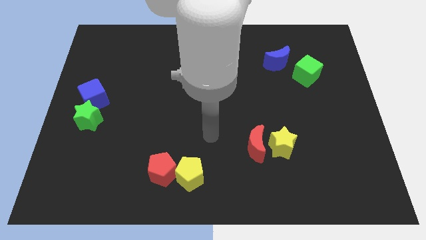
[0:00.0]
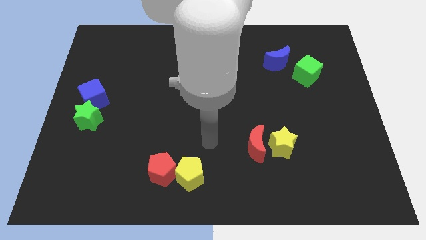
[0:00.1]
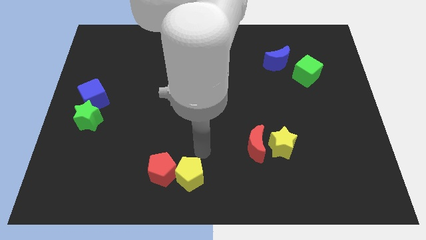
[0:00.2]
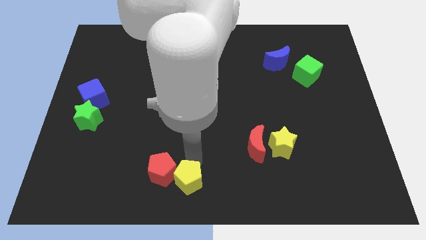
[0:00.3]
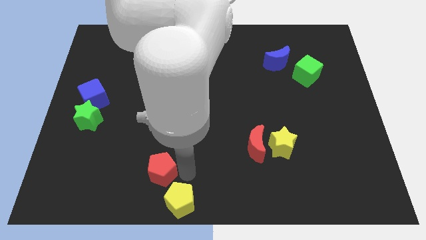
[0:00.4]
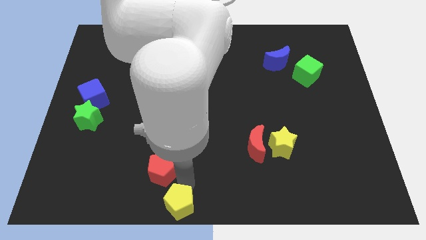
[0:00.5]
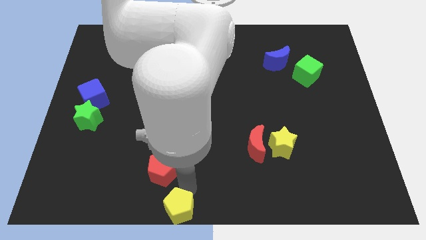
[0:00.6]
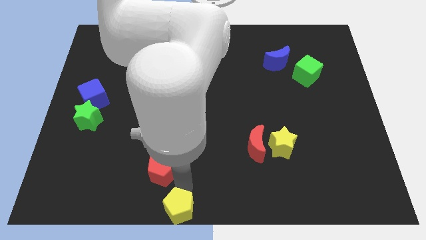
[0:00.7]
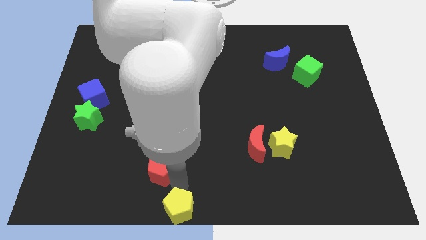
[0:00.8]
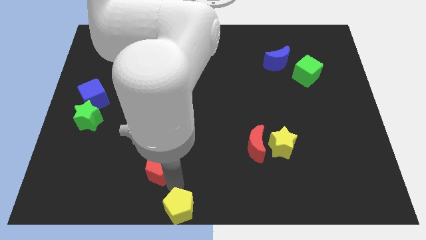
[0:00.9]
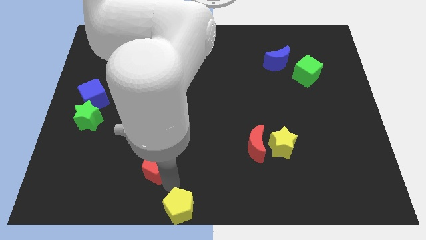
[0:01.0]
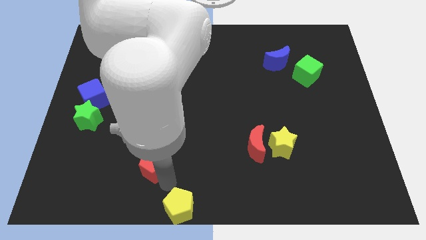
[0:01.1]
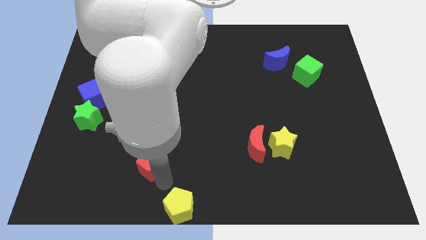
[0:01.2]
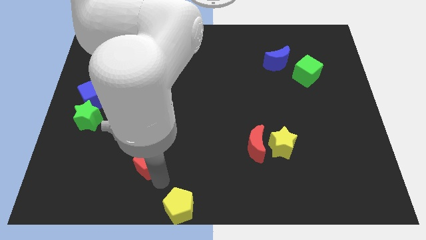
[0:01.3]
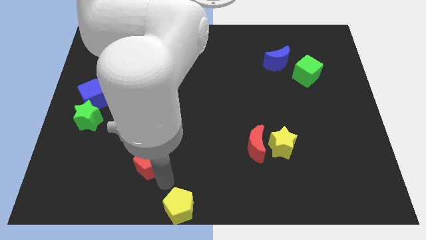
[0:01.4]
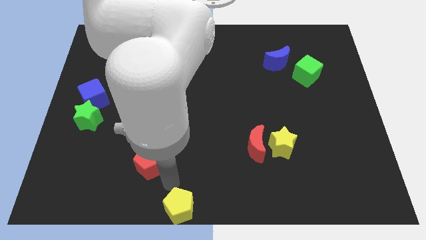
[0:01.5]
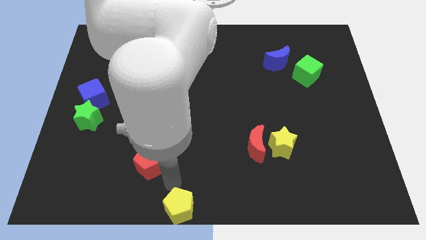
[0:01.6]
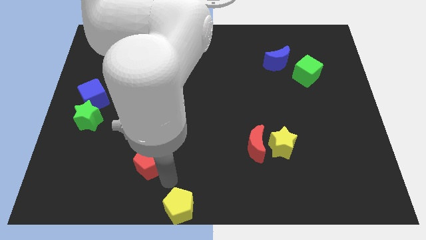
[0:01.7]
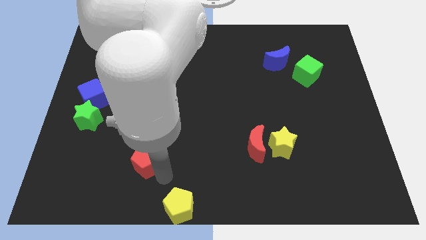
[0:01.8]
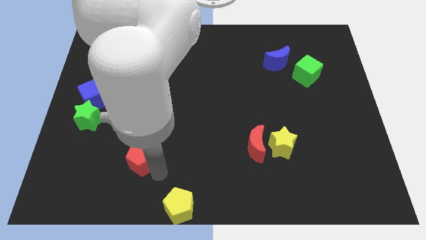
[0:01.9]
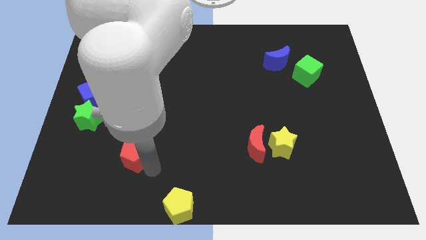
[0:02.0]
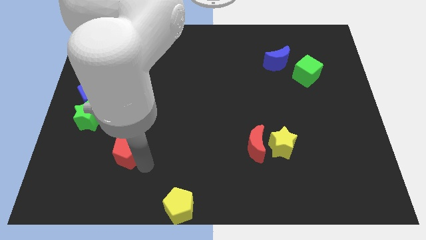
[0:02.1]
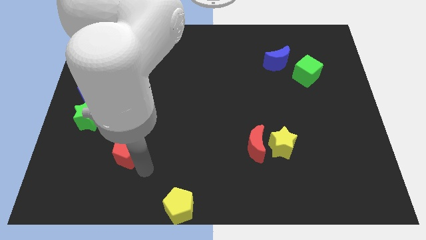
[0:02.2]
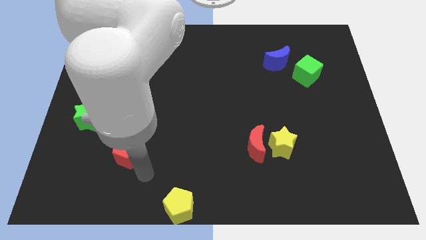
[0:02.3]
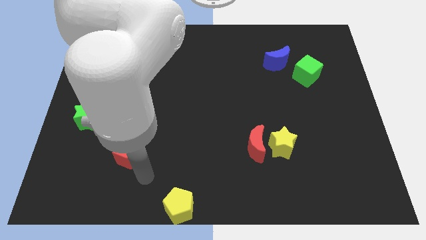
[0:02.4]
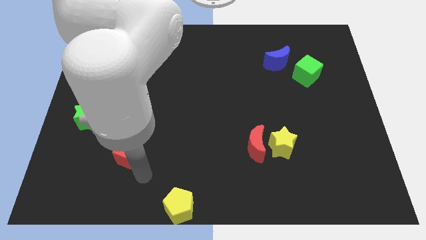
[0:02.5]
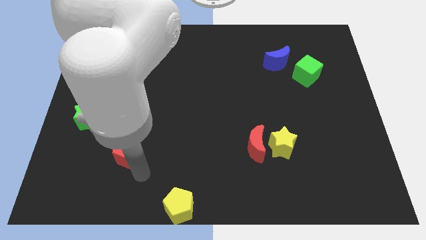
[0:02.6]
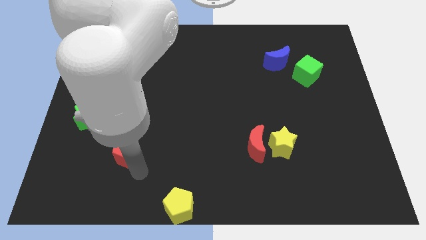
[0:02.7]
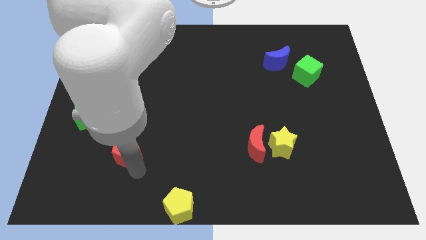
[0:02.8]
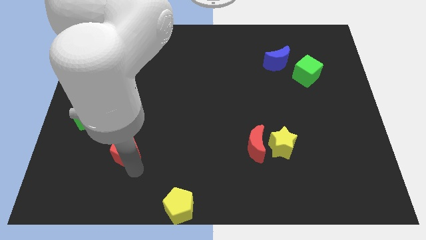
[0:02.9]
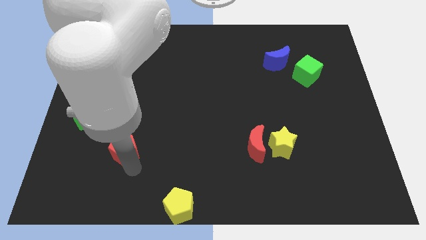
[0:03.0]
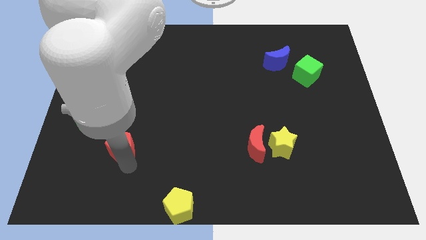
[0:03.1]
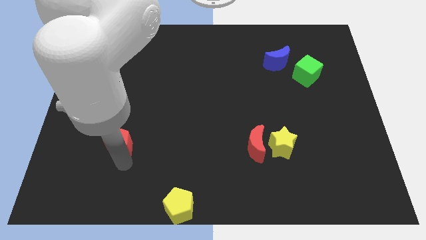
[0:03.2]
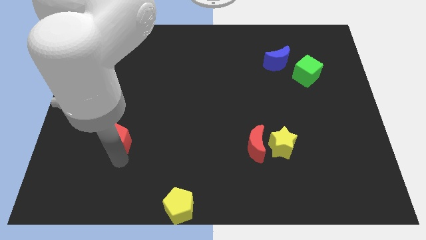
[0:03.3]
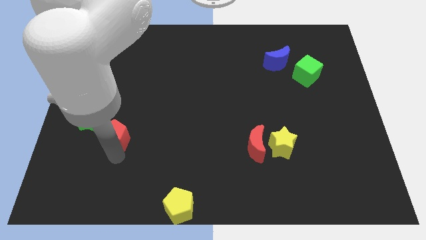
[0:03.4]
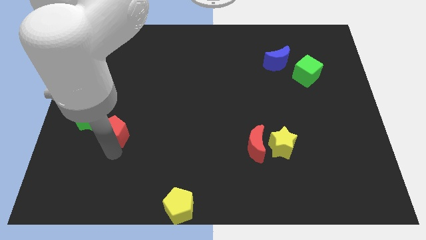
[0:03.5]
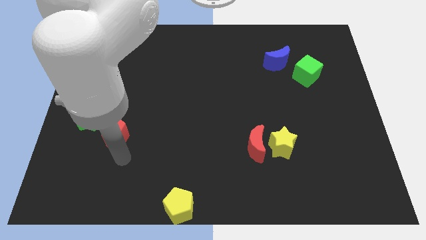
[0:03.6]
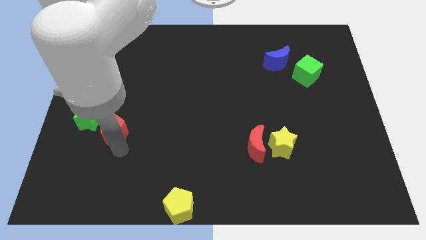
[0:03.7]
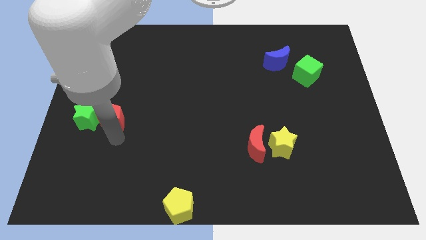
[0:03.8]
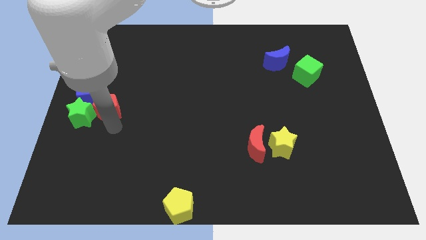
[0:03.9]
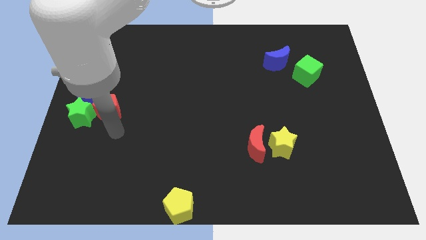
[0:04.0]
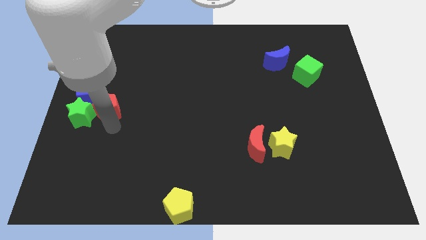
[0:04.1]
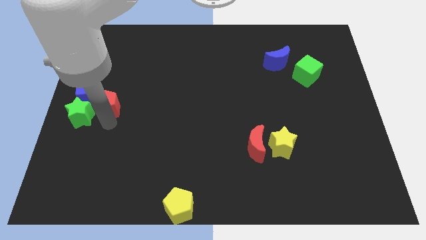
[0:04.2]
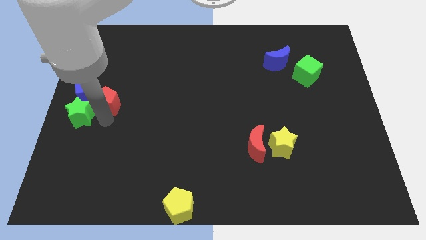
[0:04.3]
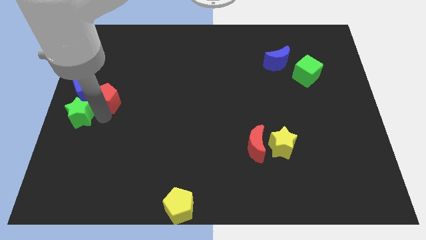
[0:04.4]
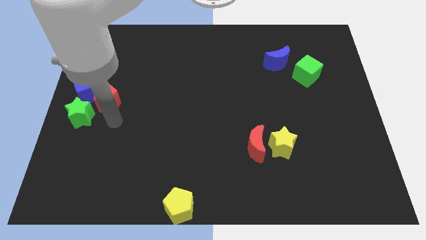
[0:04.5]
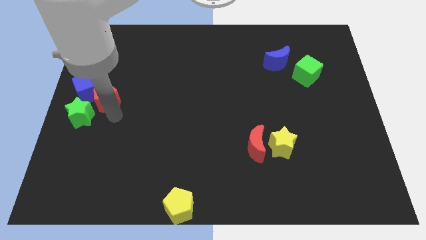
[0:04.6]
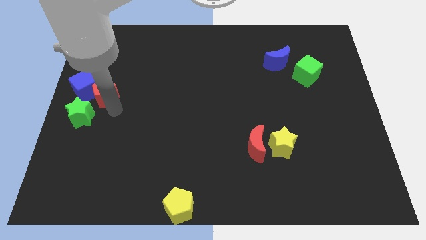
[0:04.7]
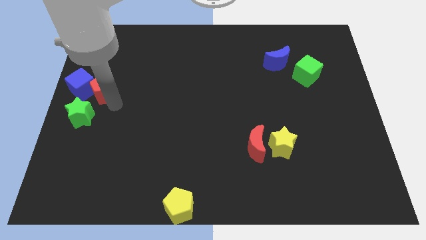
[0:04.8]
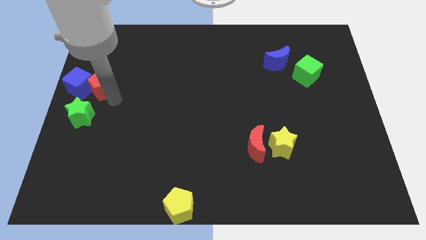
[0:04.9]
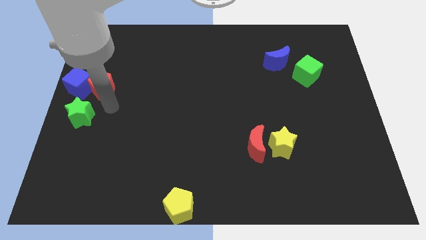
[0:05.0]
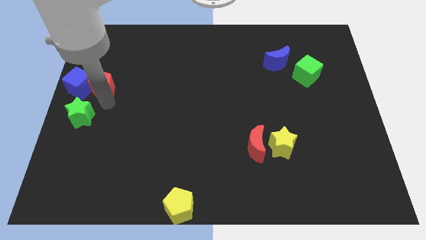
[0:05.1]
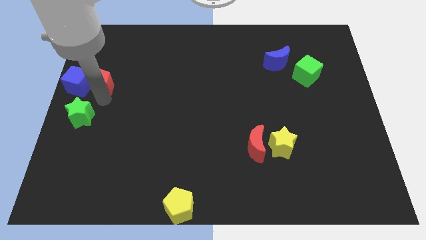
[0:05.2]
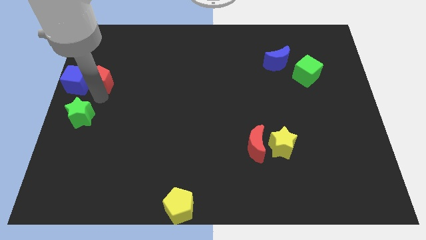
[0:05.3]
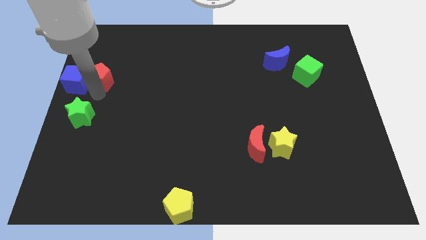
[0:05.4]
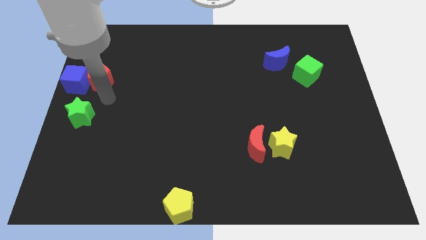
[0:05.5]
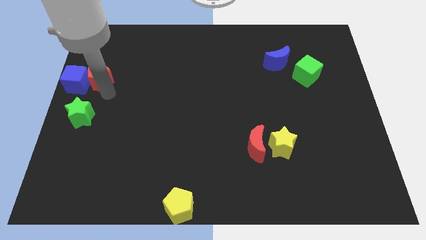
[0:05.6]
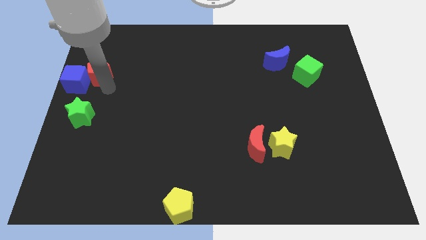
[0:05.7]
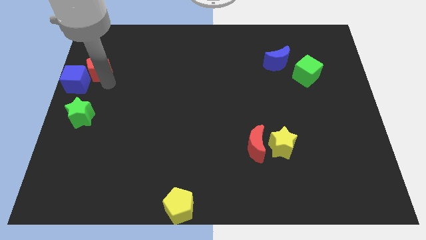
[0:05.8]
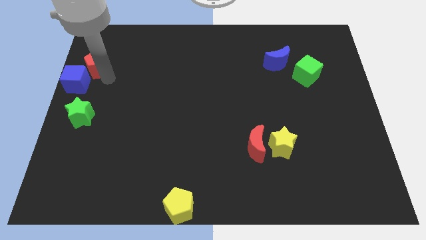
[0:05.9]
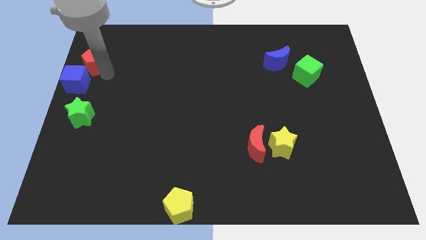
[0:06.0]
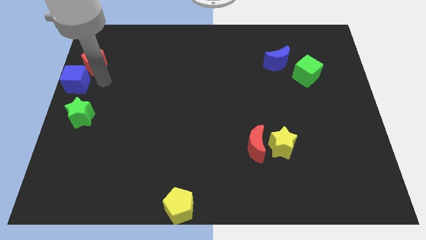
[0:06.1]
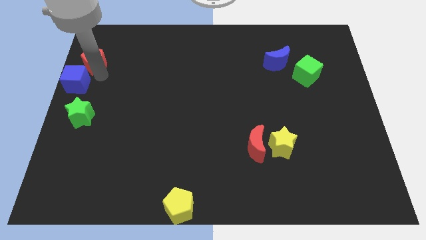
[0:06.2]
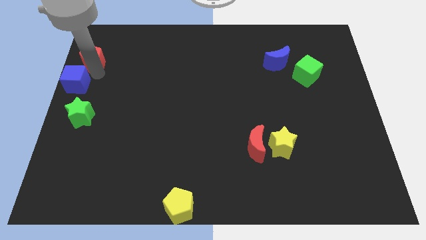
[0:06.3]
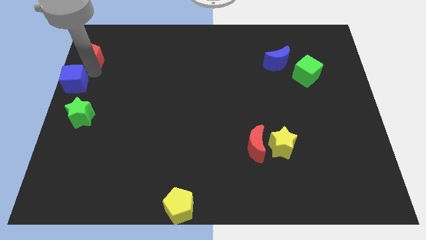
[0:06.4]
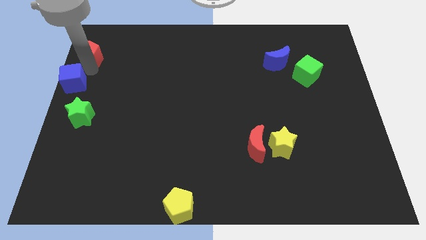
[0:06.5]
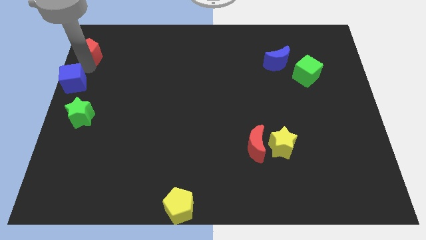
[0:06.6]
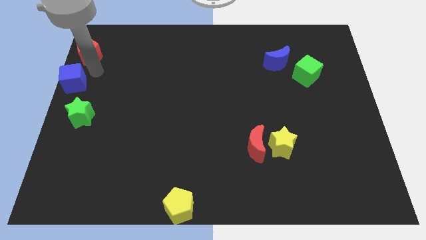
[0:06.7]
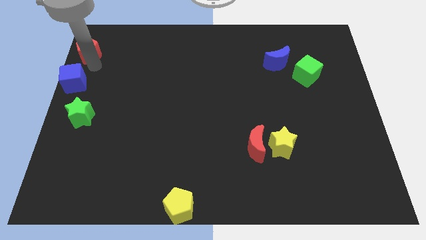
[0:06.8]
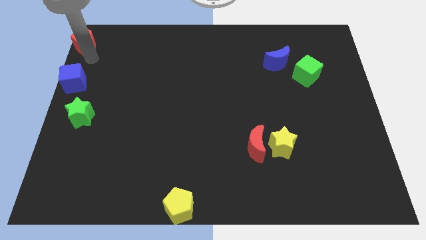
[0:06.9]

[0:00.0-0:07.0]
push the red pentagon to the upper left corner
